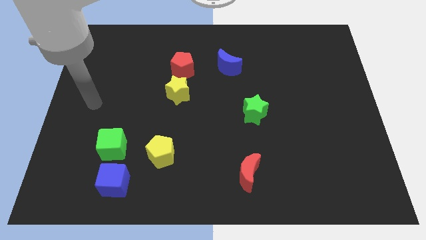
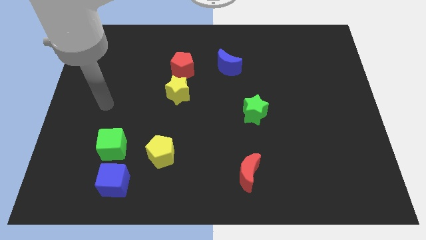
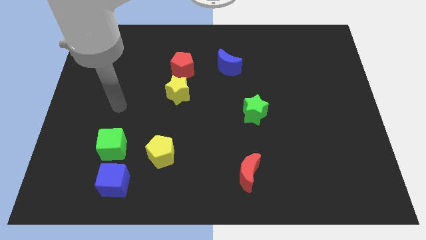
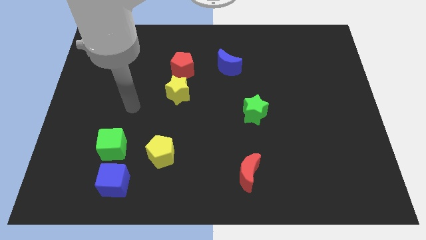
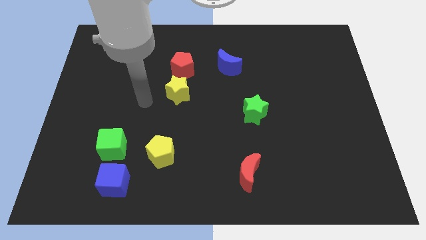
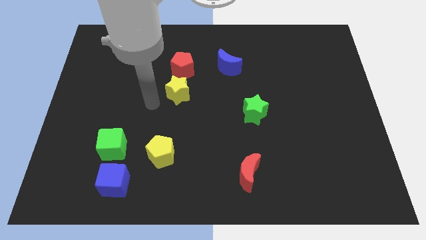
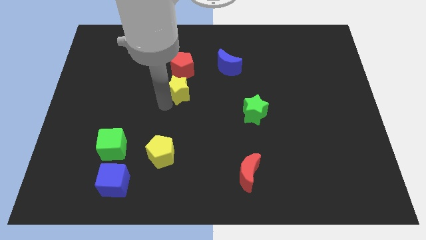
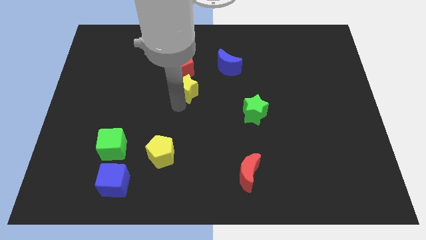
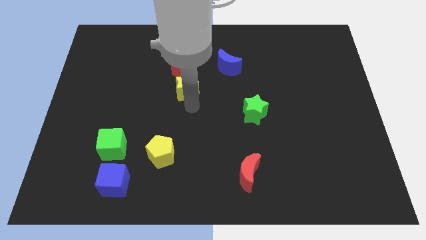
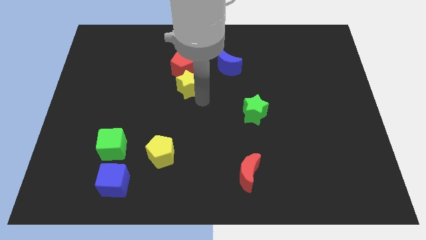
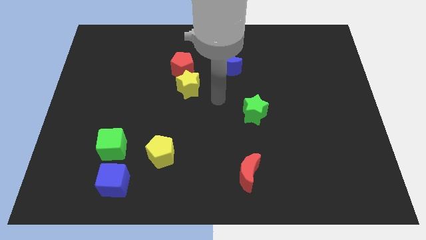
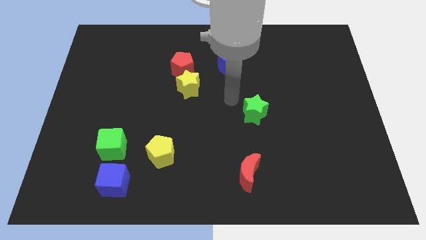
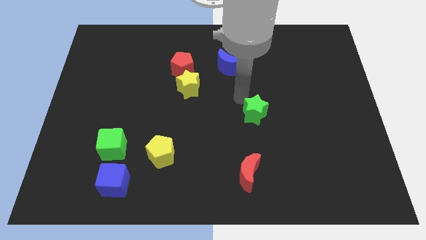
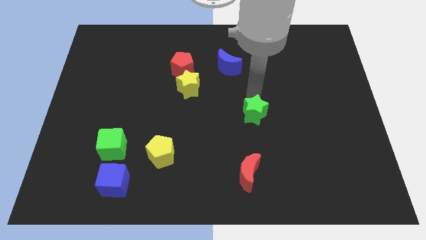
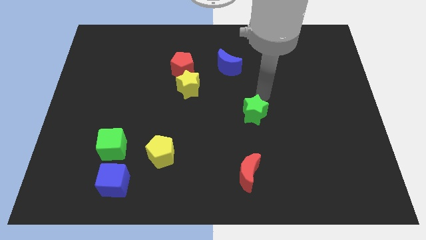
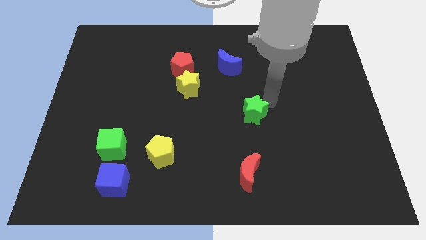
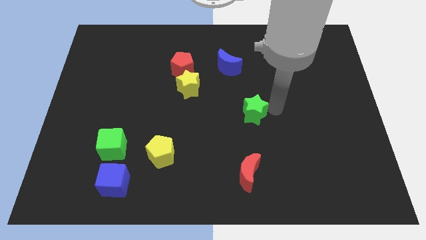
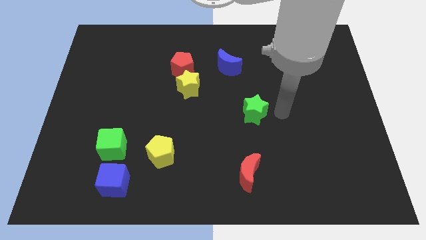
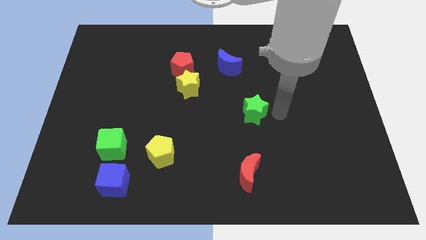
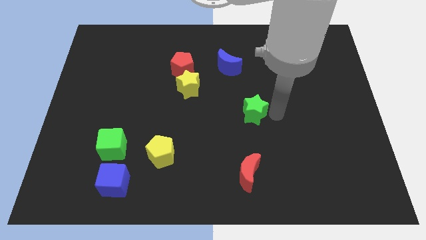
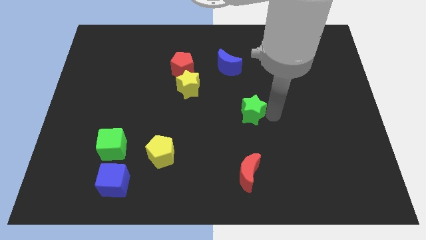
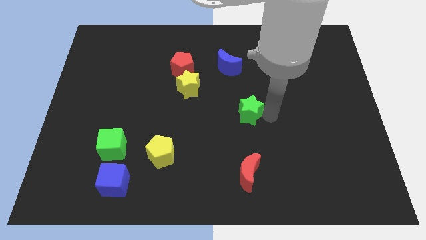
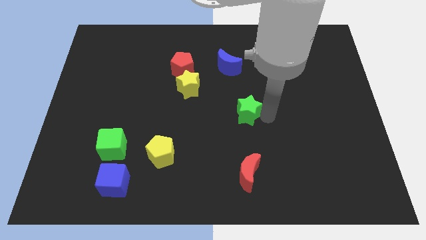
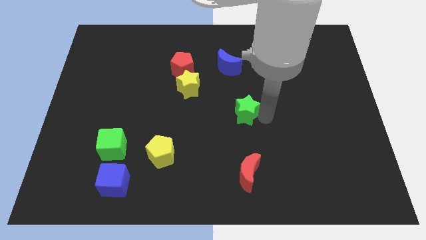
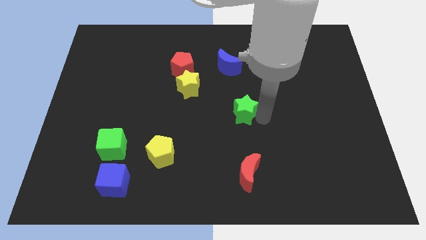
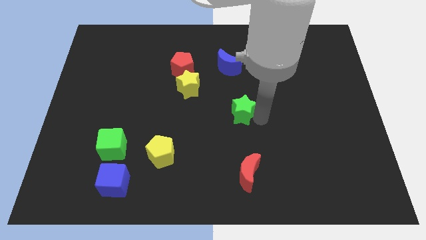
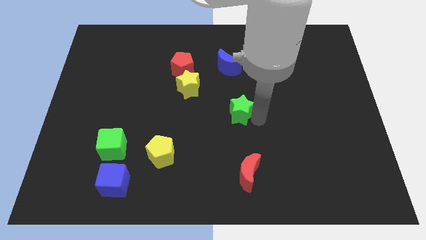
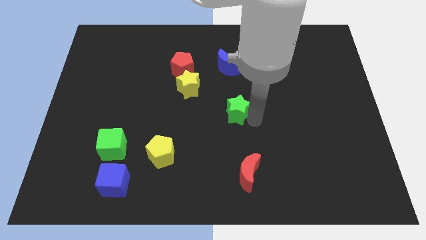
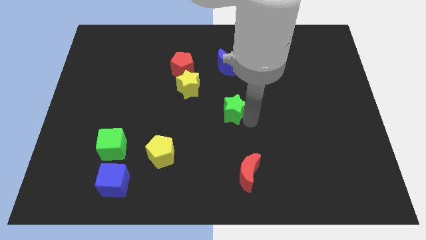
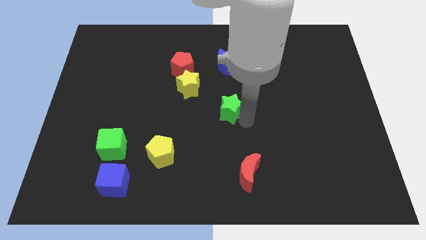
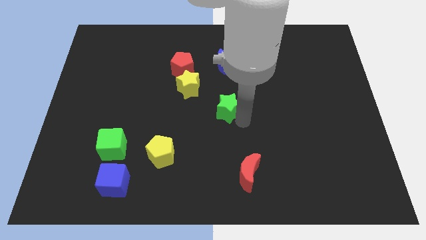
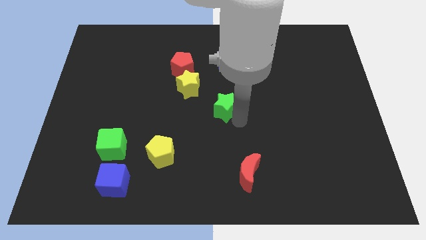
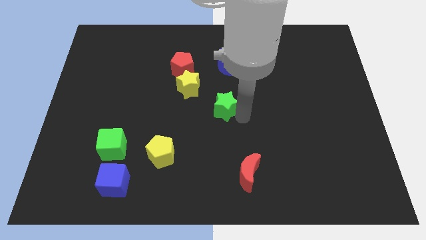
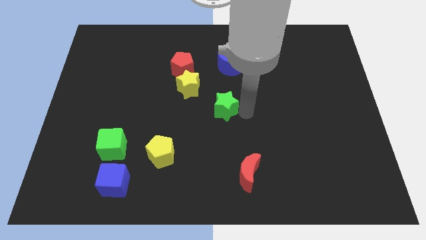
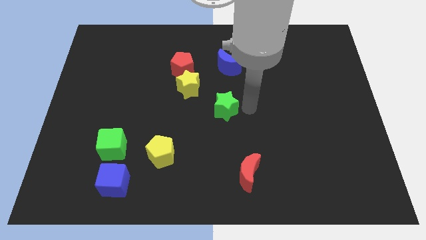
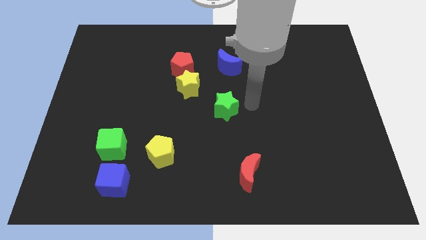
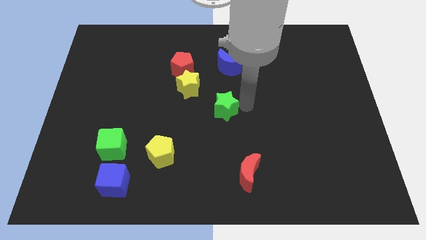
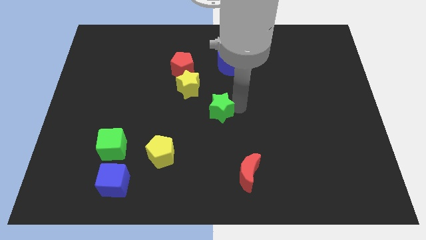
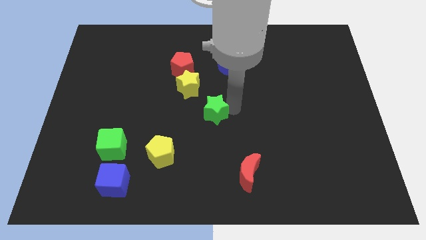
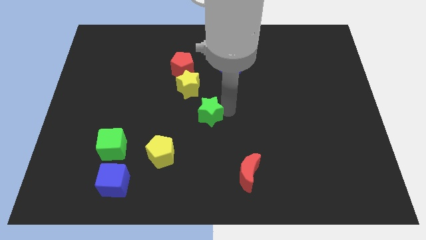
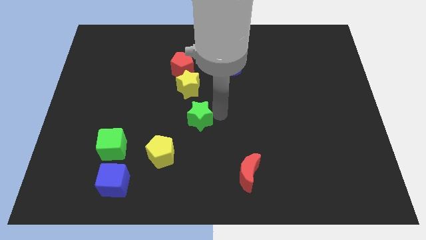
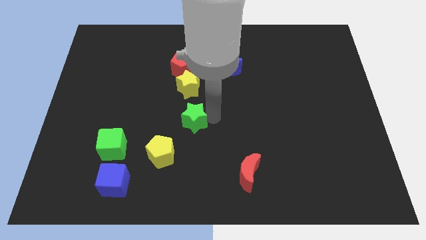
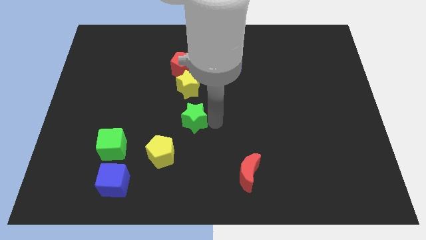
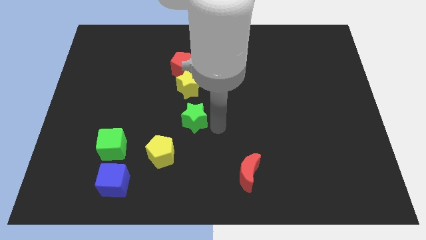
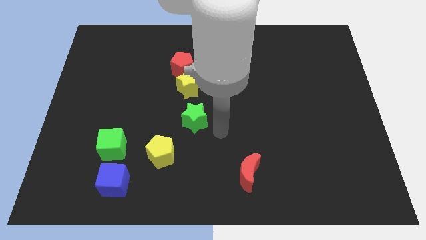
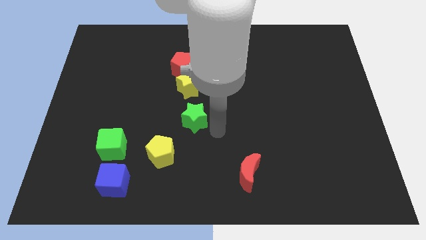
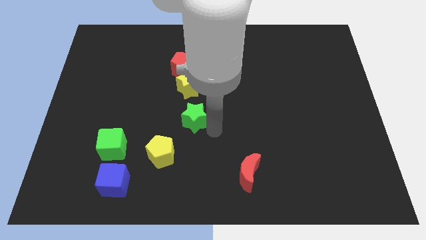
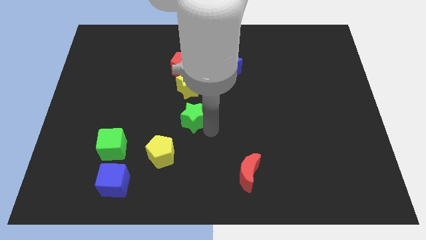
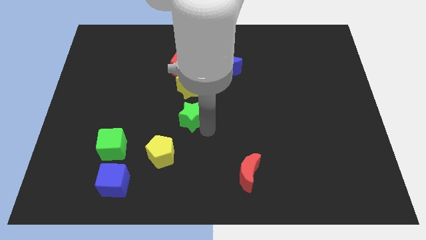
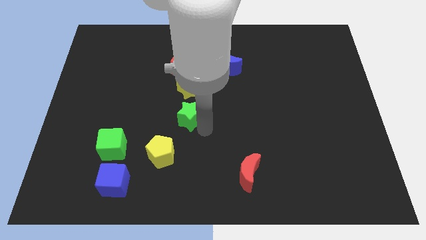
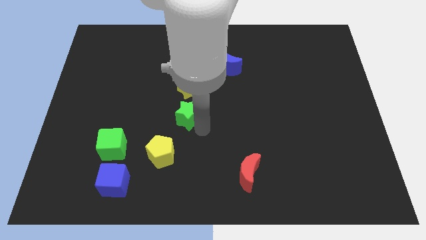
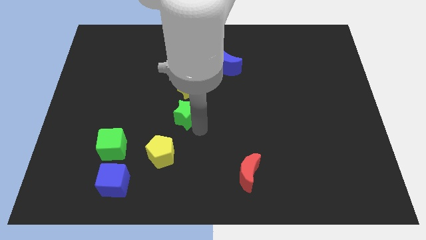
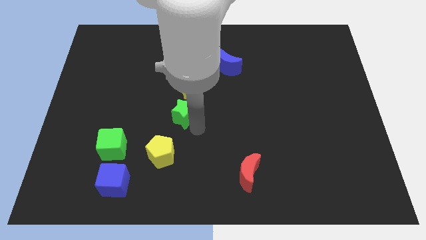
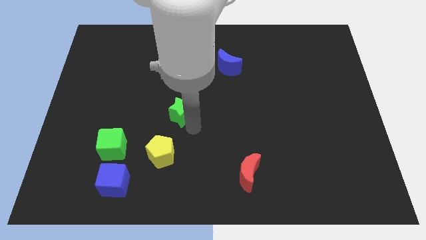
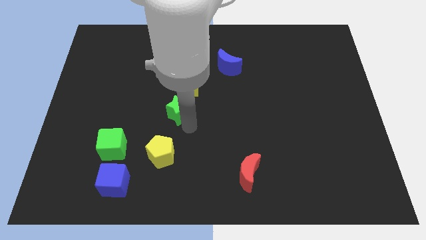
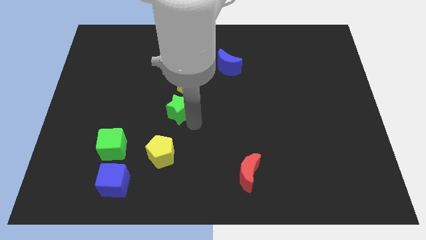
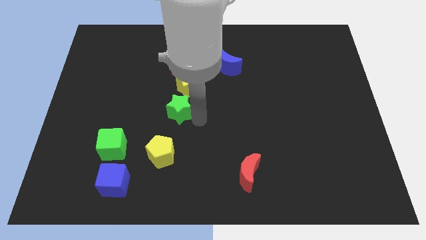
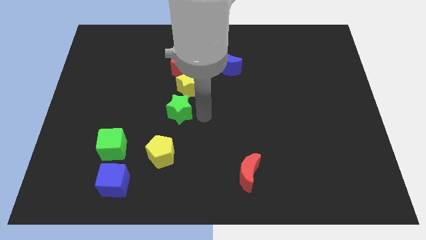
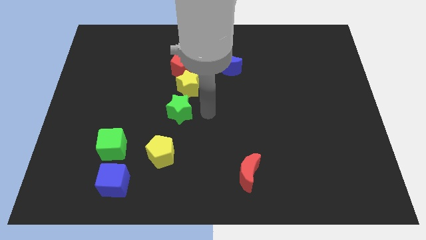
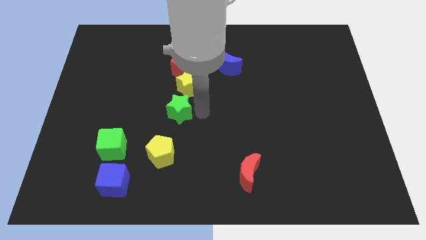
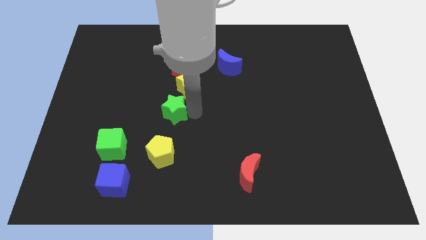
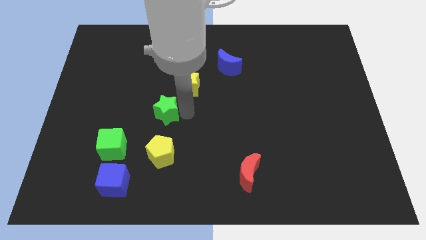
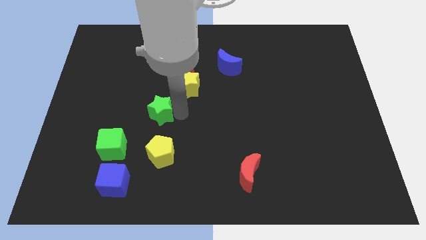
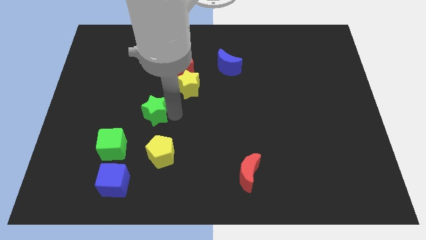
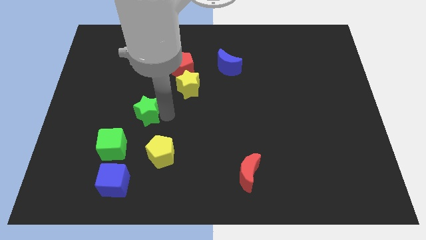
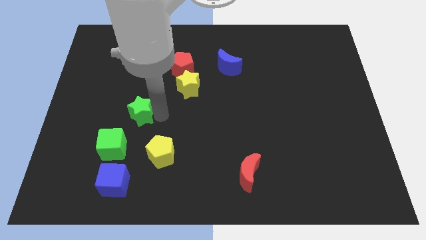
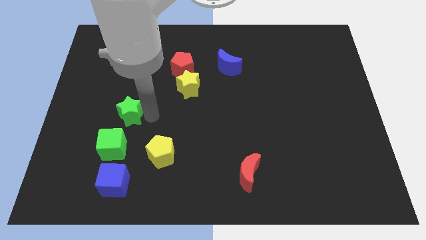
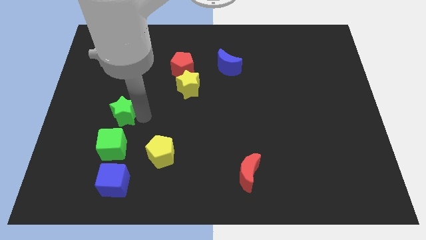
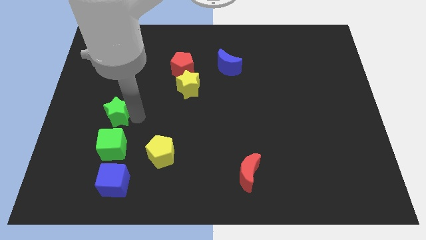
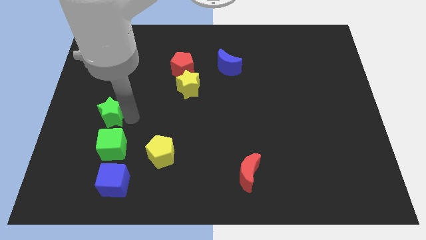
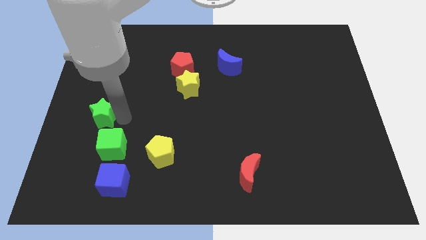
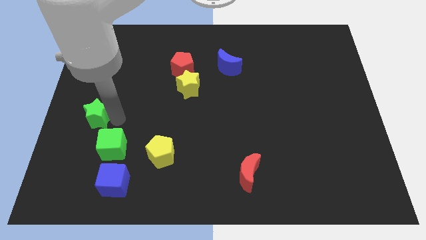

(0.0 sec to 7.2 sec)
push the green star to the center left
